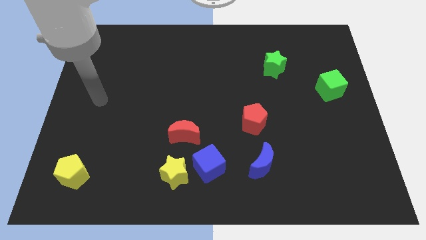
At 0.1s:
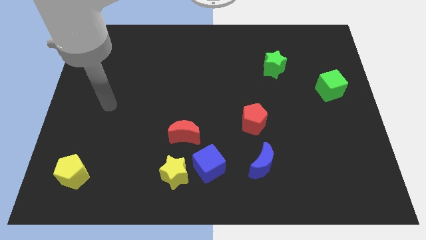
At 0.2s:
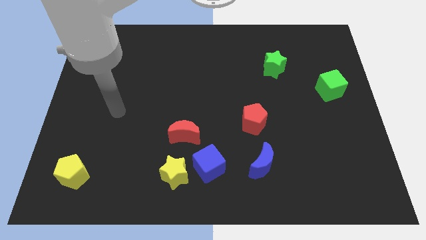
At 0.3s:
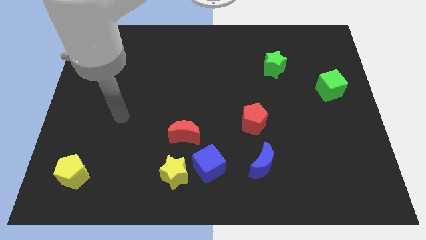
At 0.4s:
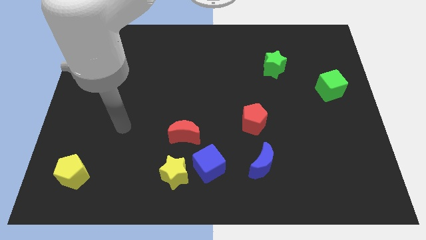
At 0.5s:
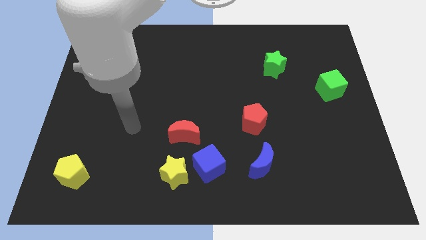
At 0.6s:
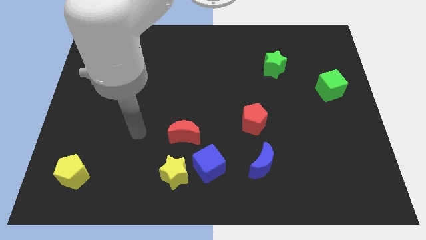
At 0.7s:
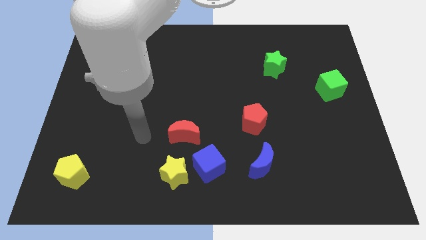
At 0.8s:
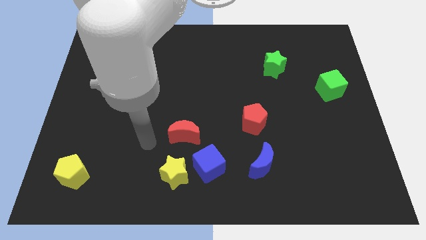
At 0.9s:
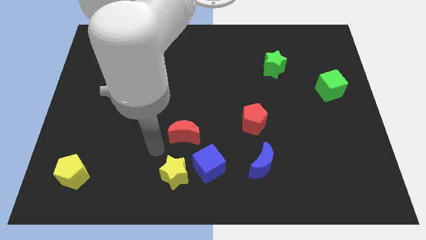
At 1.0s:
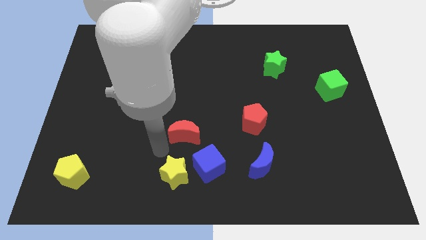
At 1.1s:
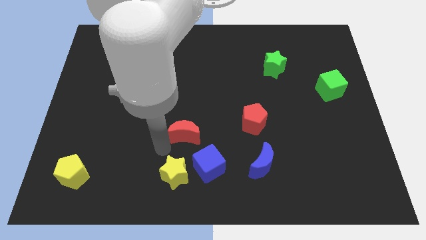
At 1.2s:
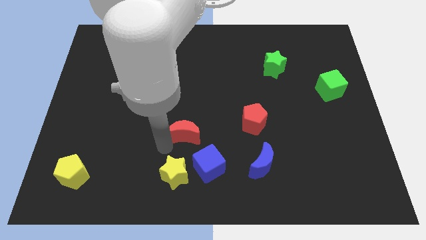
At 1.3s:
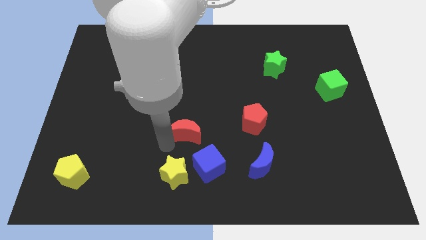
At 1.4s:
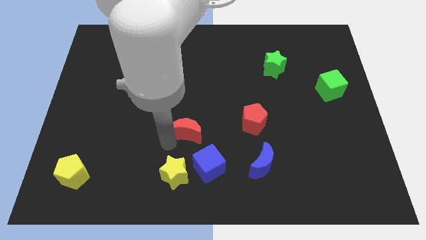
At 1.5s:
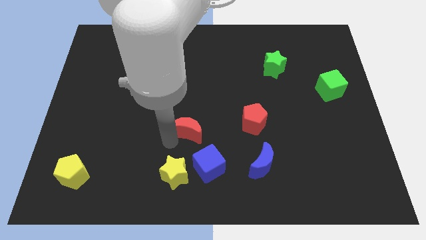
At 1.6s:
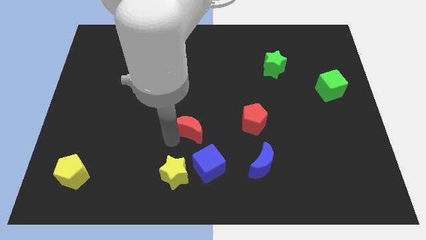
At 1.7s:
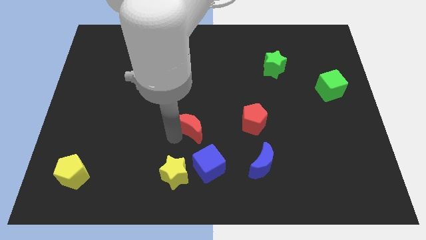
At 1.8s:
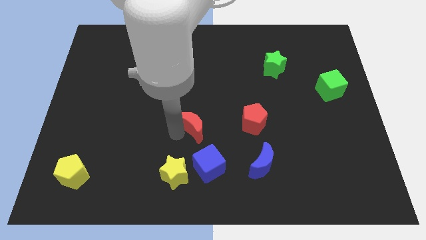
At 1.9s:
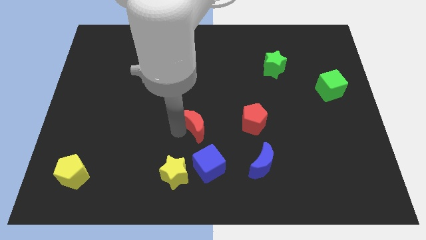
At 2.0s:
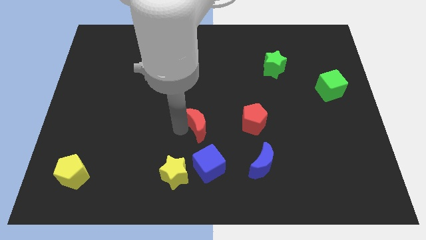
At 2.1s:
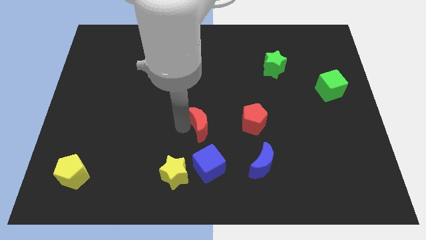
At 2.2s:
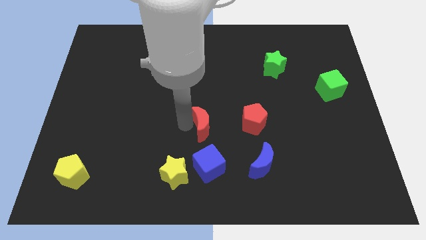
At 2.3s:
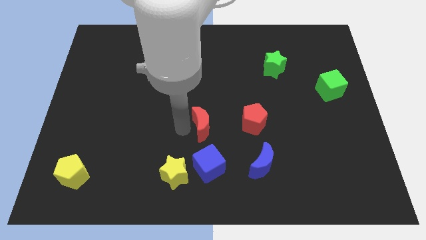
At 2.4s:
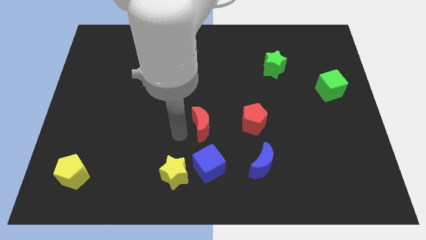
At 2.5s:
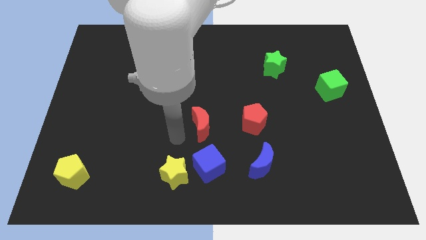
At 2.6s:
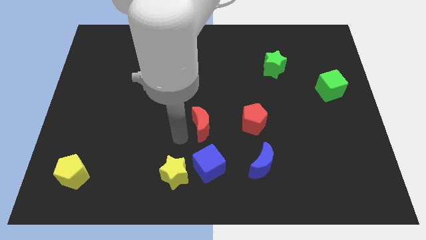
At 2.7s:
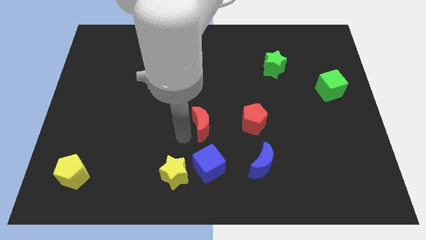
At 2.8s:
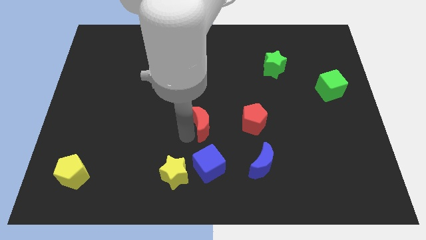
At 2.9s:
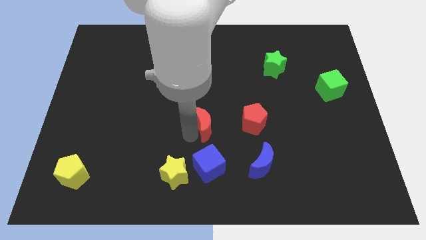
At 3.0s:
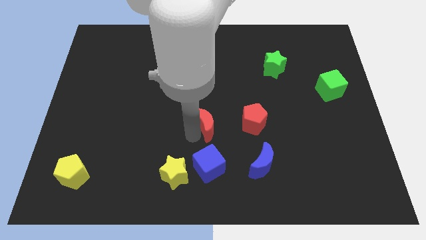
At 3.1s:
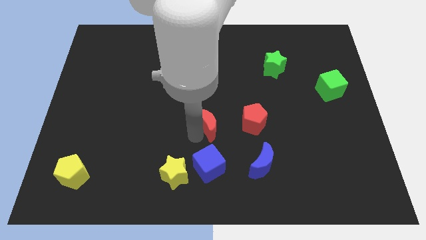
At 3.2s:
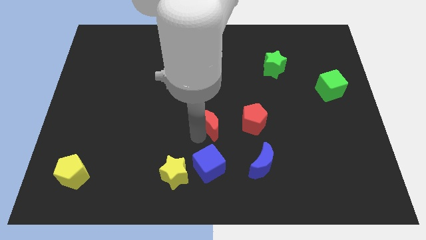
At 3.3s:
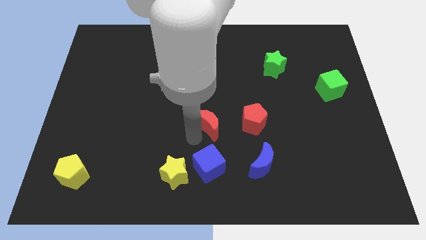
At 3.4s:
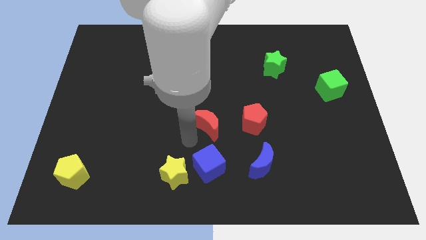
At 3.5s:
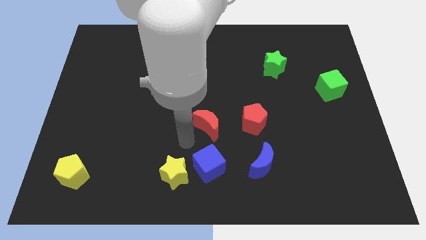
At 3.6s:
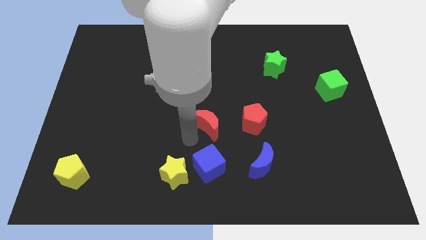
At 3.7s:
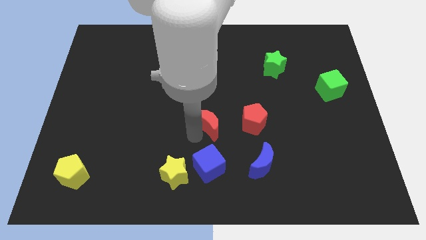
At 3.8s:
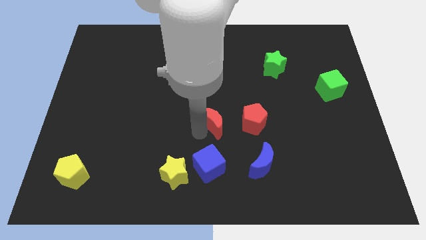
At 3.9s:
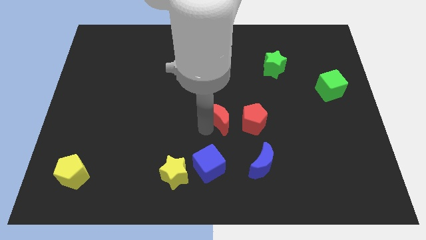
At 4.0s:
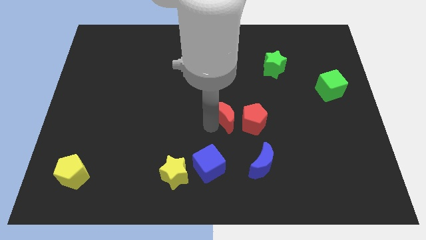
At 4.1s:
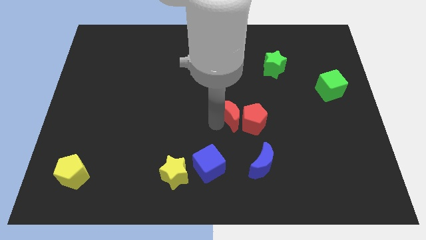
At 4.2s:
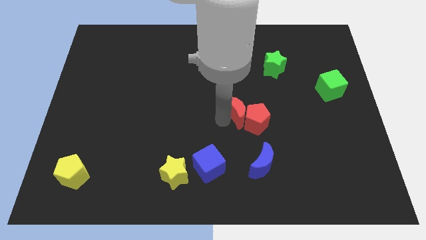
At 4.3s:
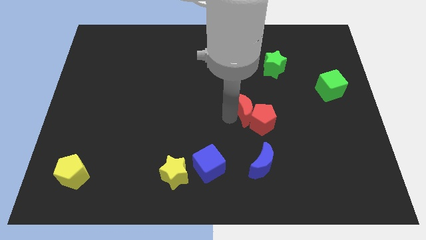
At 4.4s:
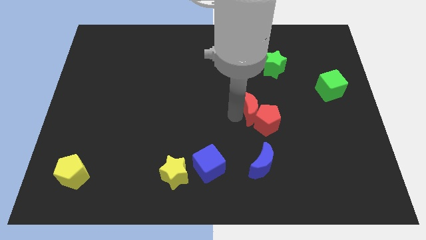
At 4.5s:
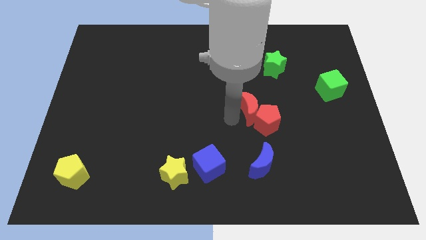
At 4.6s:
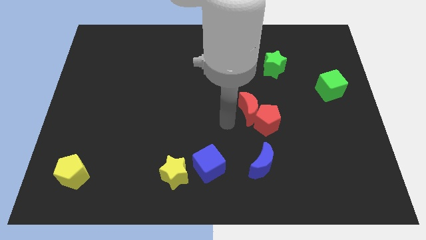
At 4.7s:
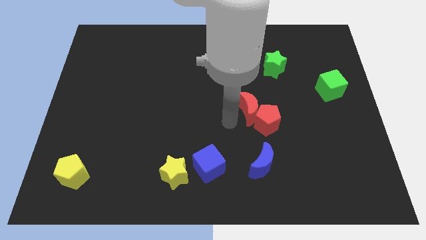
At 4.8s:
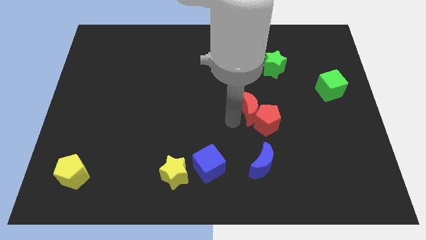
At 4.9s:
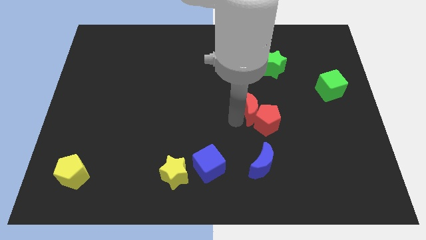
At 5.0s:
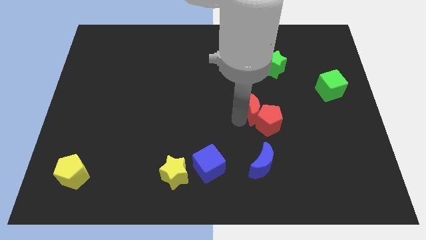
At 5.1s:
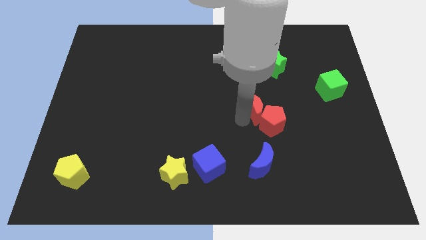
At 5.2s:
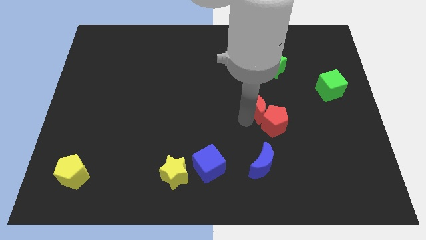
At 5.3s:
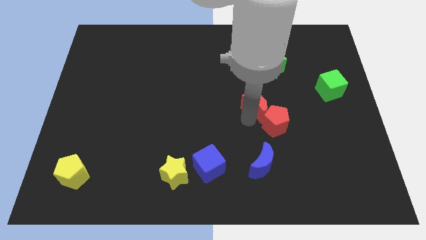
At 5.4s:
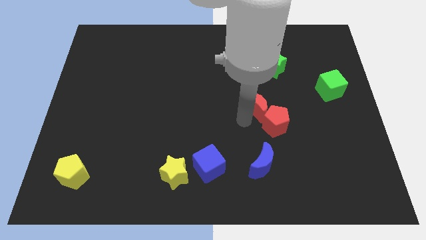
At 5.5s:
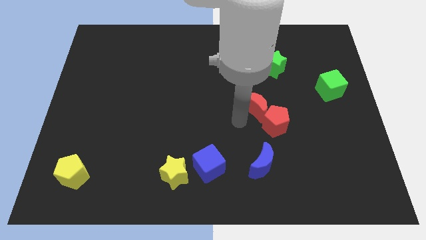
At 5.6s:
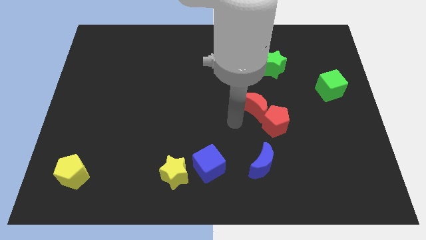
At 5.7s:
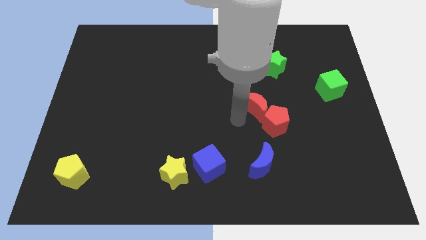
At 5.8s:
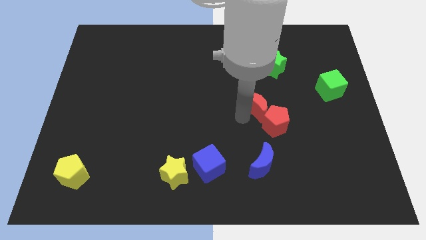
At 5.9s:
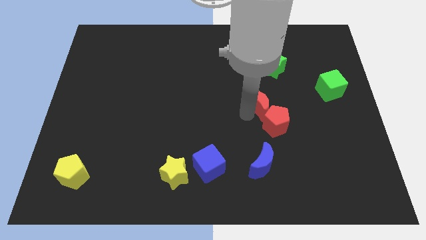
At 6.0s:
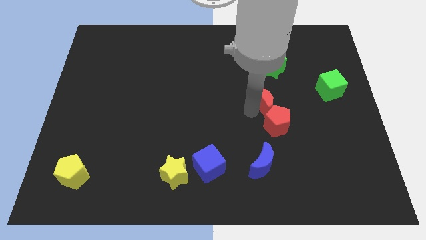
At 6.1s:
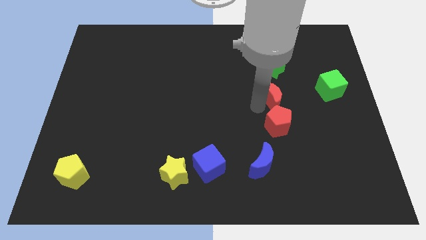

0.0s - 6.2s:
slide the red moon to the left side of the green cube
